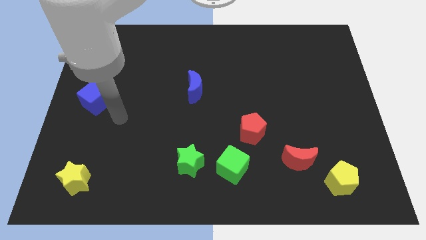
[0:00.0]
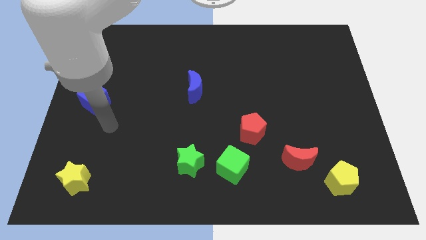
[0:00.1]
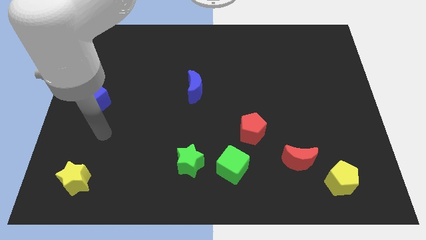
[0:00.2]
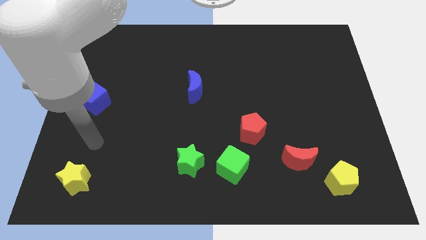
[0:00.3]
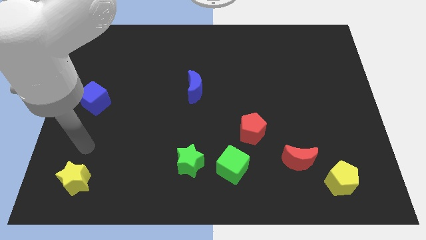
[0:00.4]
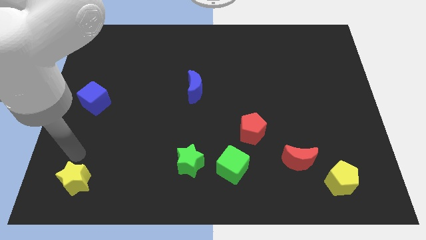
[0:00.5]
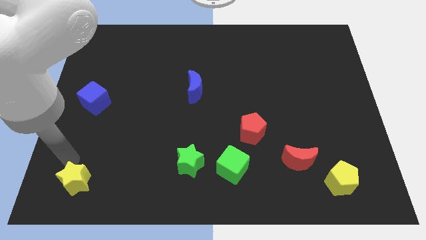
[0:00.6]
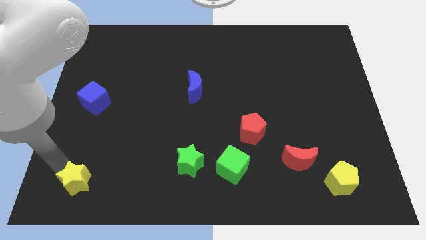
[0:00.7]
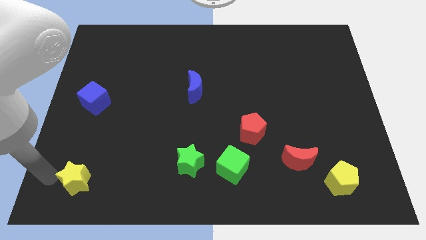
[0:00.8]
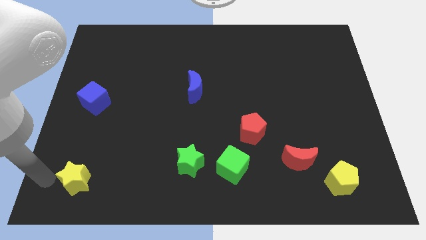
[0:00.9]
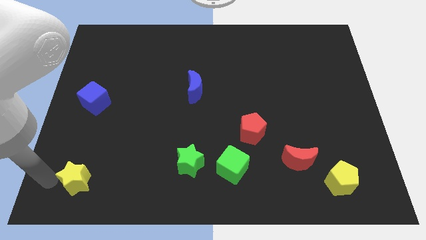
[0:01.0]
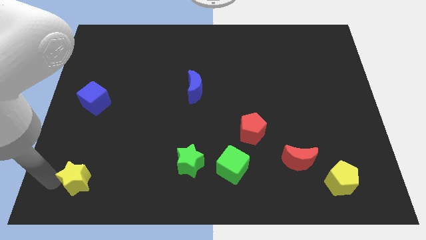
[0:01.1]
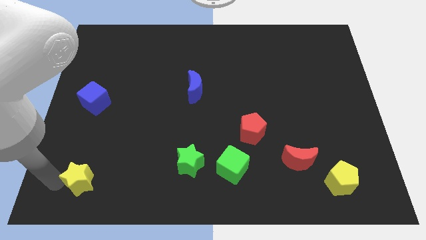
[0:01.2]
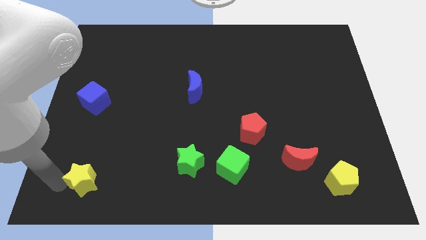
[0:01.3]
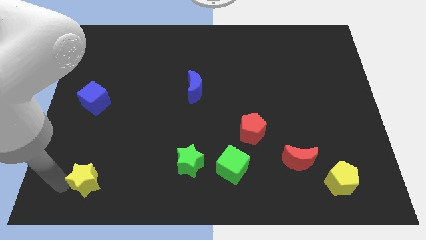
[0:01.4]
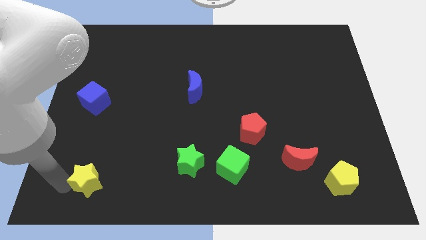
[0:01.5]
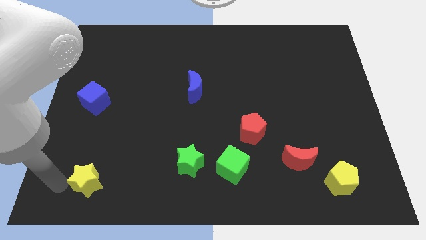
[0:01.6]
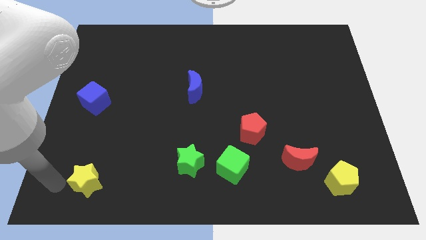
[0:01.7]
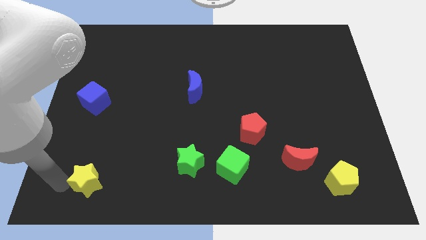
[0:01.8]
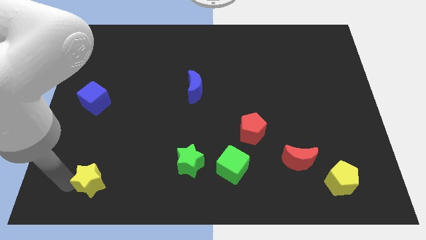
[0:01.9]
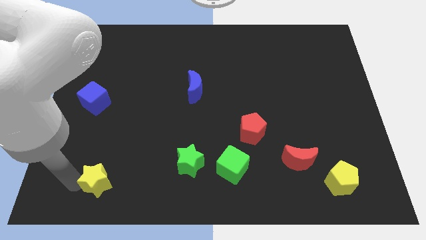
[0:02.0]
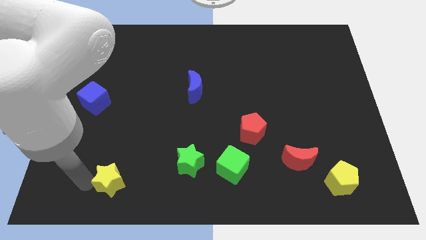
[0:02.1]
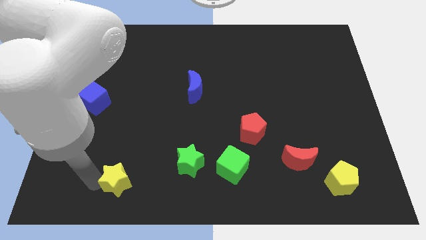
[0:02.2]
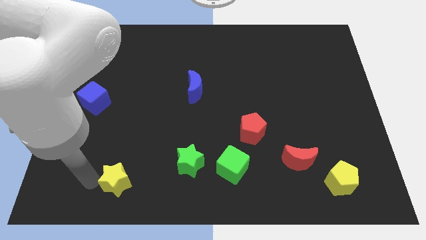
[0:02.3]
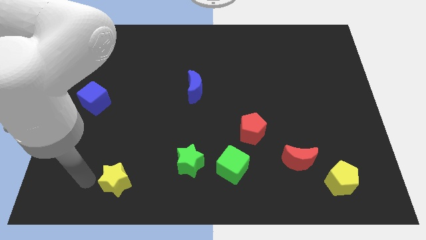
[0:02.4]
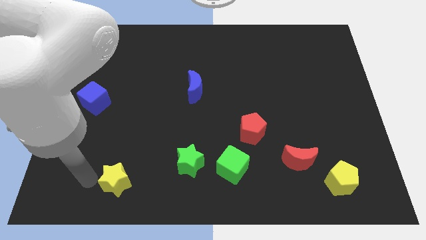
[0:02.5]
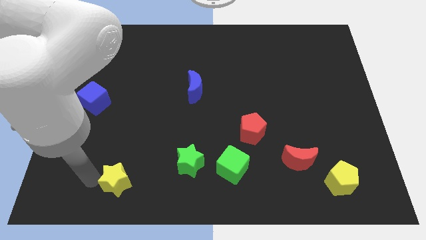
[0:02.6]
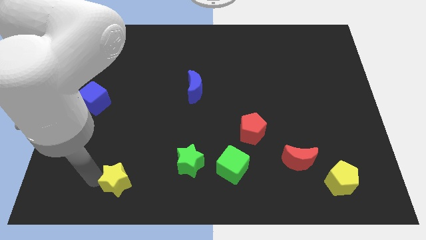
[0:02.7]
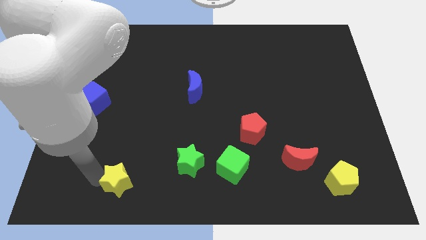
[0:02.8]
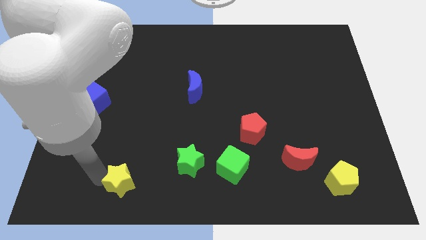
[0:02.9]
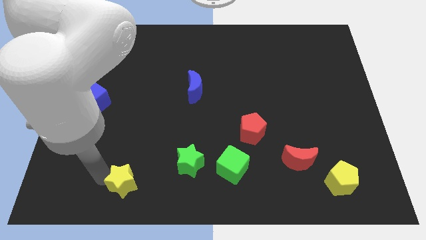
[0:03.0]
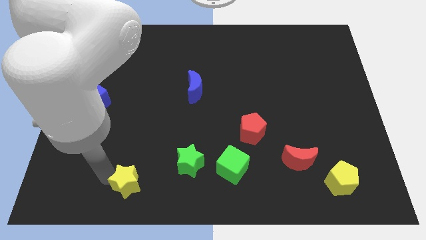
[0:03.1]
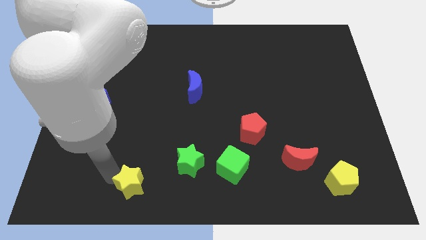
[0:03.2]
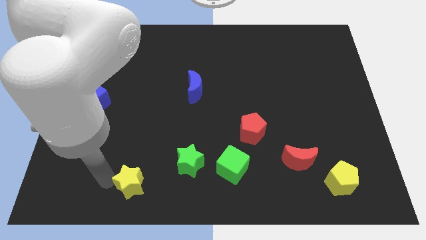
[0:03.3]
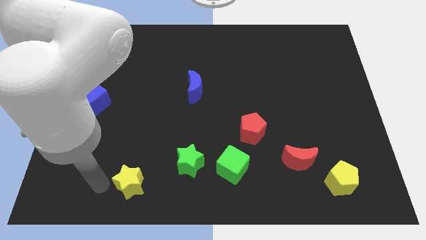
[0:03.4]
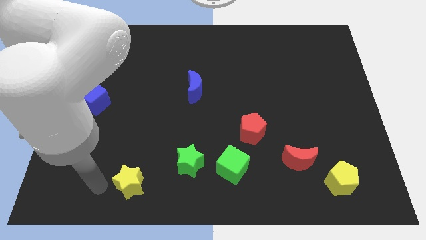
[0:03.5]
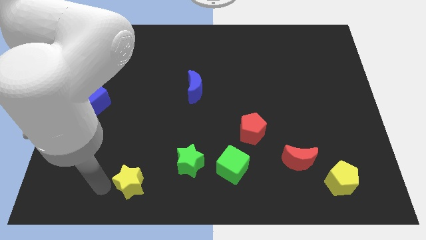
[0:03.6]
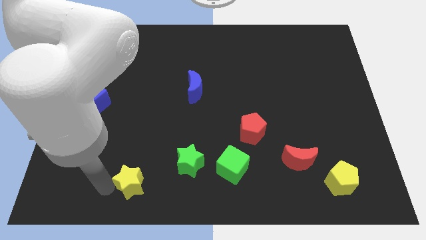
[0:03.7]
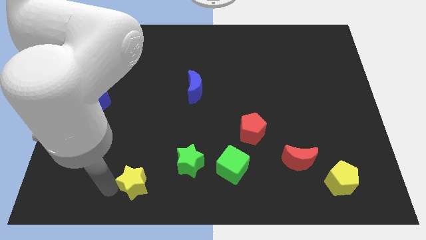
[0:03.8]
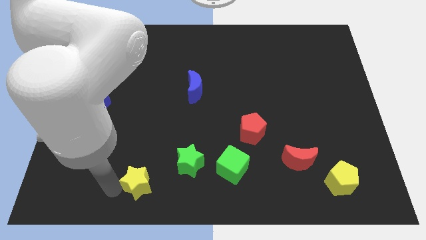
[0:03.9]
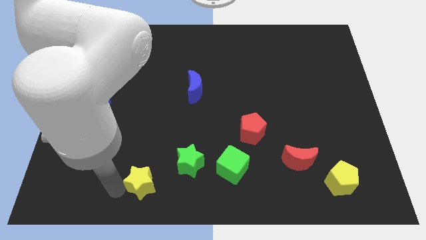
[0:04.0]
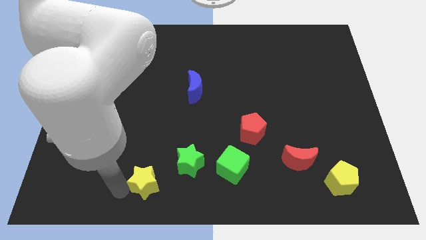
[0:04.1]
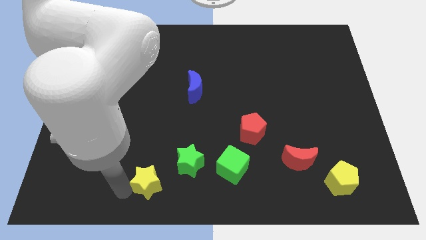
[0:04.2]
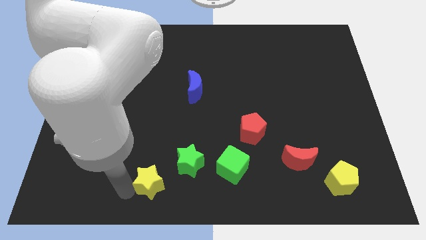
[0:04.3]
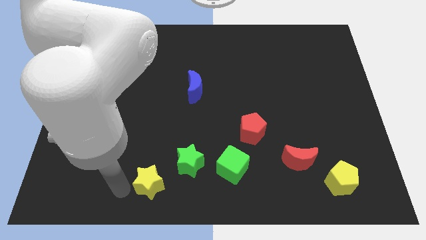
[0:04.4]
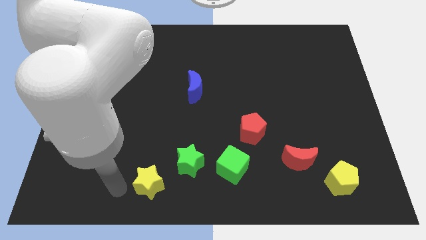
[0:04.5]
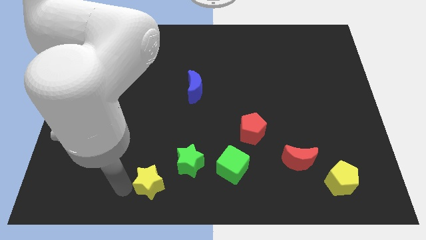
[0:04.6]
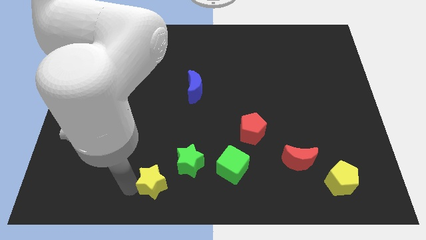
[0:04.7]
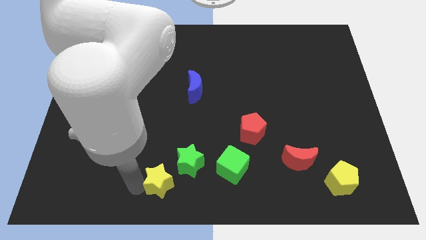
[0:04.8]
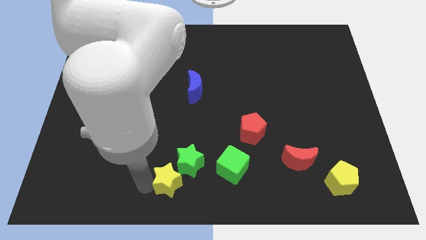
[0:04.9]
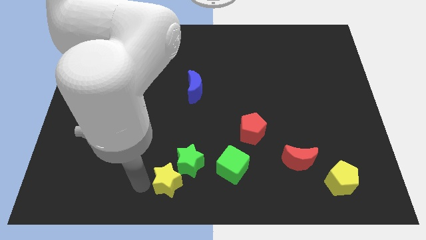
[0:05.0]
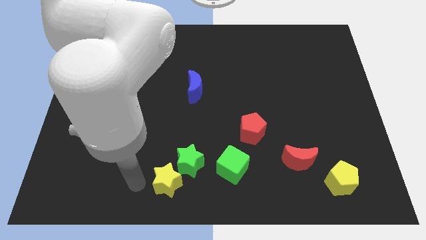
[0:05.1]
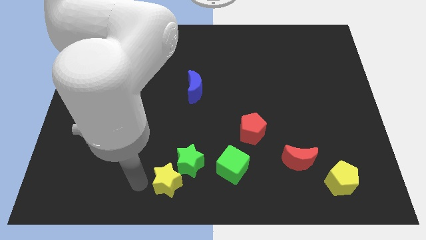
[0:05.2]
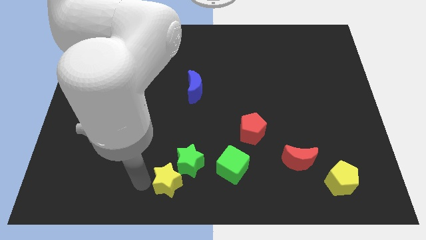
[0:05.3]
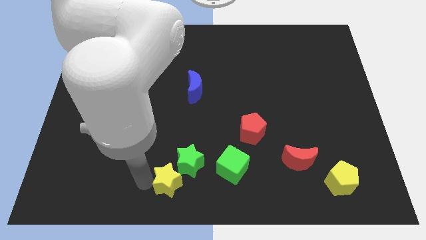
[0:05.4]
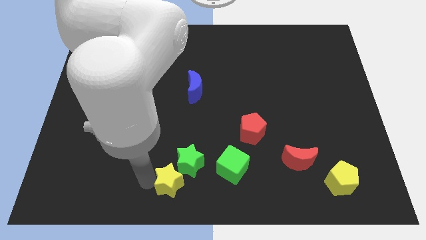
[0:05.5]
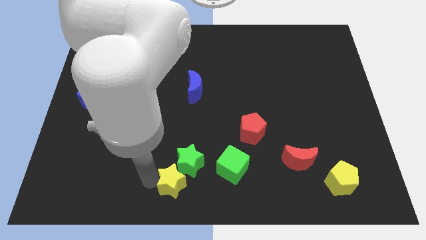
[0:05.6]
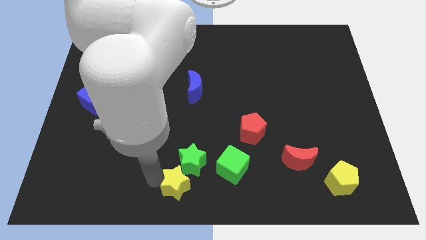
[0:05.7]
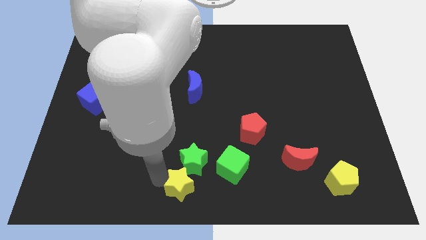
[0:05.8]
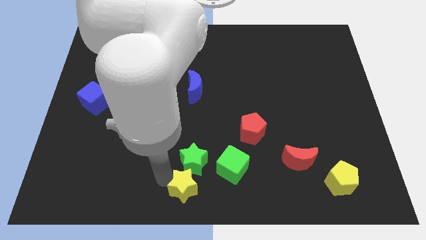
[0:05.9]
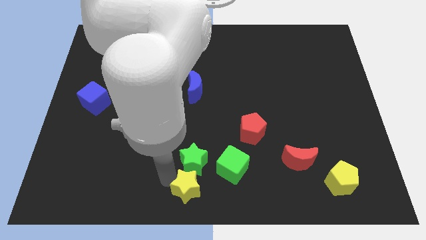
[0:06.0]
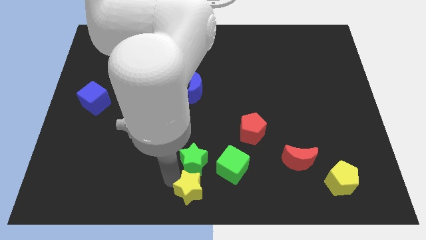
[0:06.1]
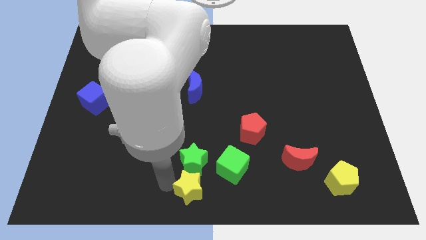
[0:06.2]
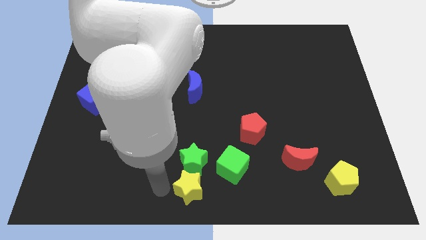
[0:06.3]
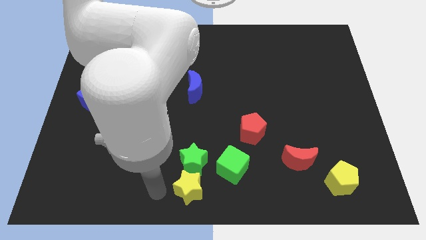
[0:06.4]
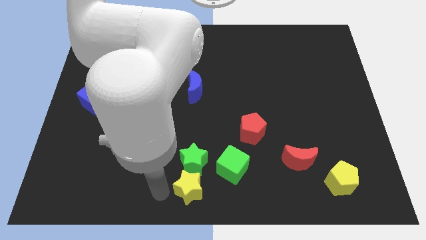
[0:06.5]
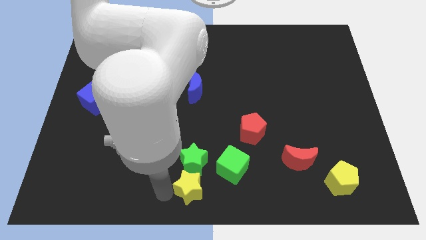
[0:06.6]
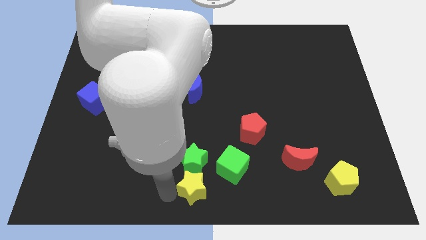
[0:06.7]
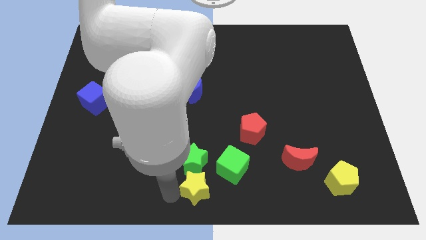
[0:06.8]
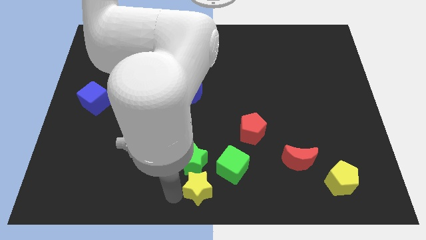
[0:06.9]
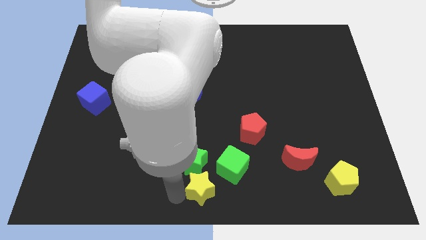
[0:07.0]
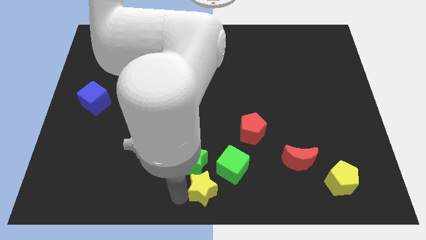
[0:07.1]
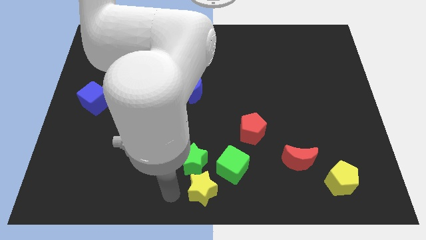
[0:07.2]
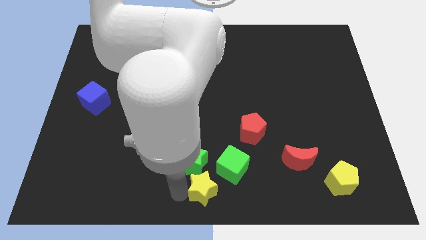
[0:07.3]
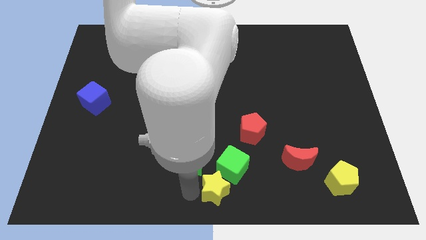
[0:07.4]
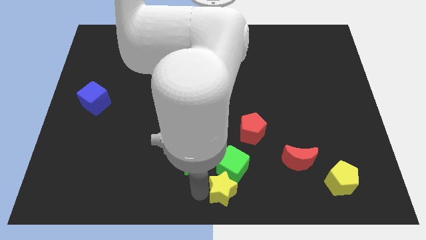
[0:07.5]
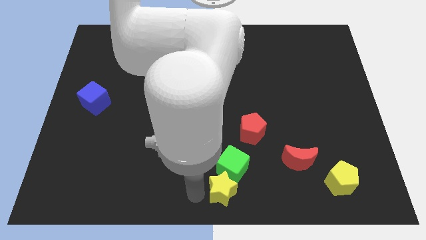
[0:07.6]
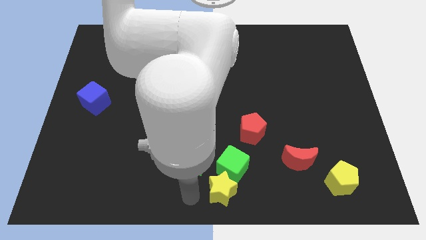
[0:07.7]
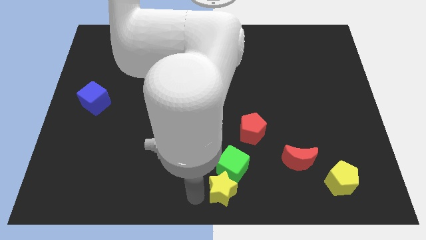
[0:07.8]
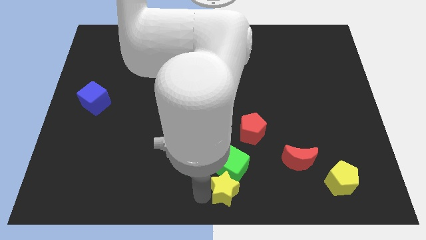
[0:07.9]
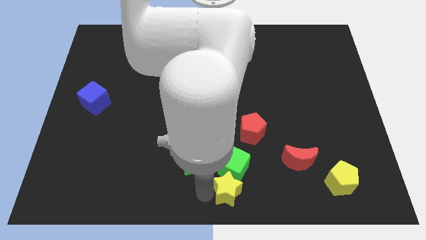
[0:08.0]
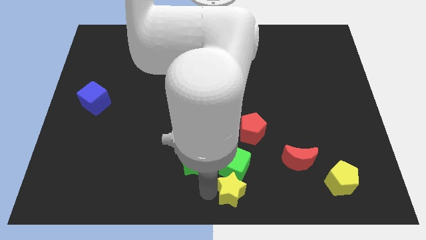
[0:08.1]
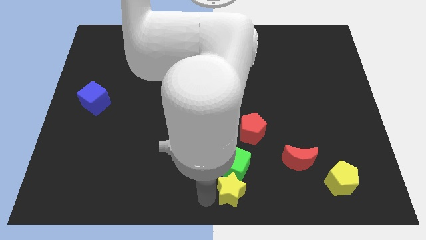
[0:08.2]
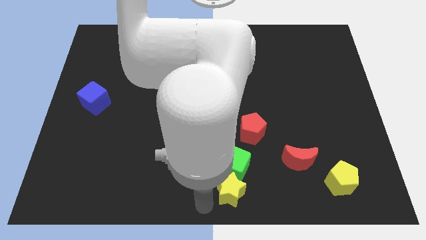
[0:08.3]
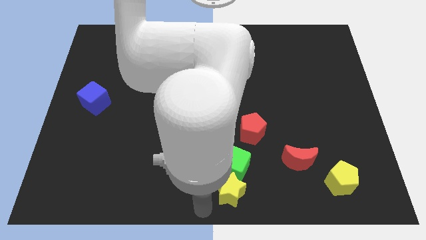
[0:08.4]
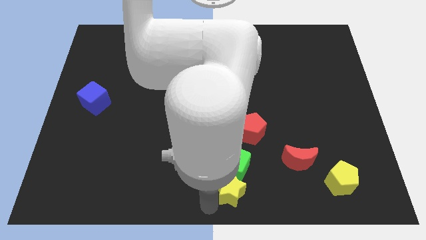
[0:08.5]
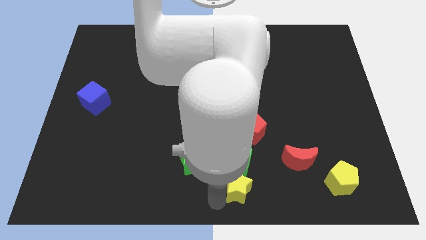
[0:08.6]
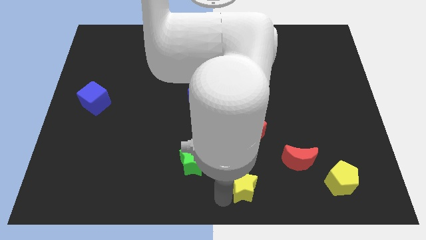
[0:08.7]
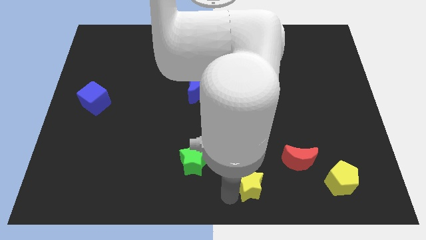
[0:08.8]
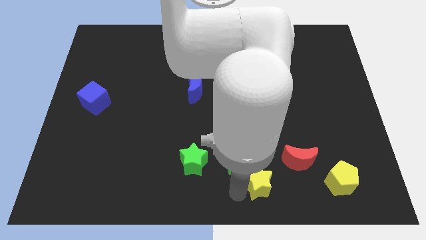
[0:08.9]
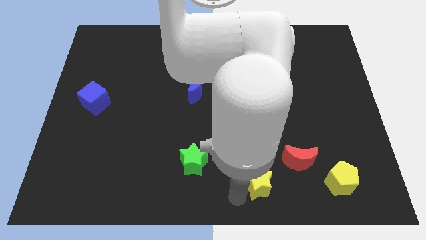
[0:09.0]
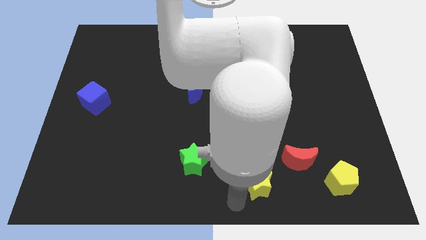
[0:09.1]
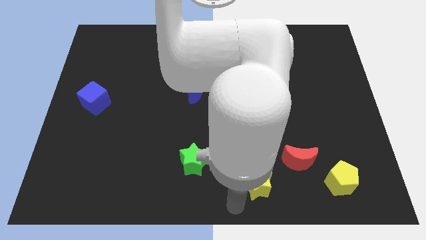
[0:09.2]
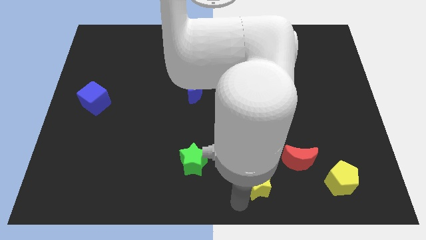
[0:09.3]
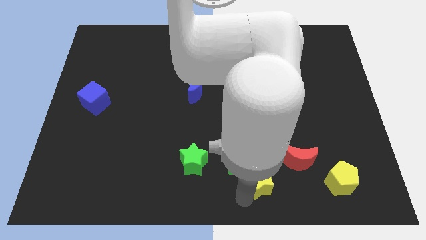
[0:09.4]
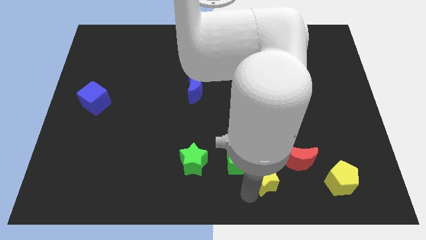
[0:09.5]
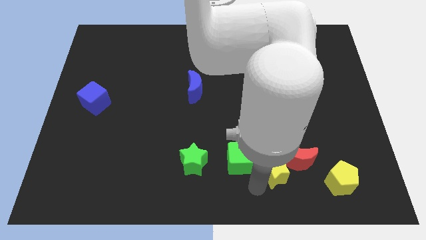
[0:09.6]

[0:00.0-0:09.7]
move the yellow star towards the red moon
